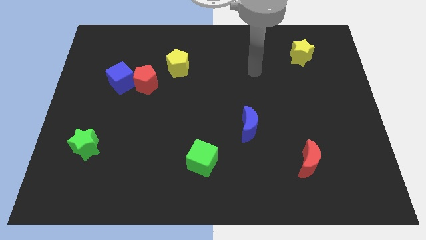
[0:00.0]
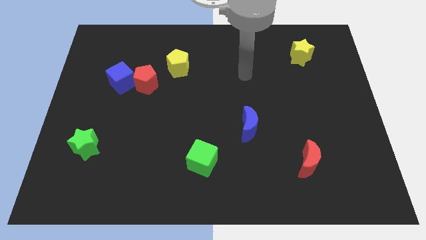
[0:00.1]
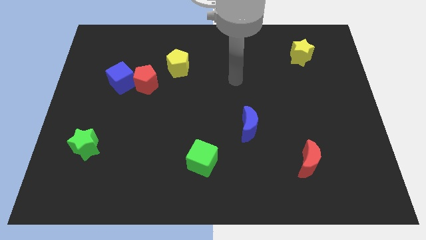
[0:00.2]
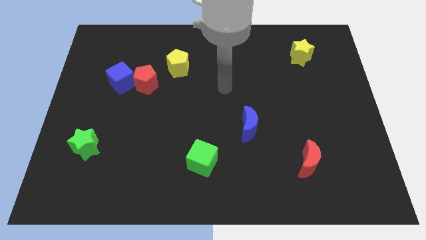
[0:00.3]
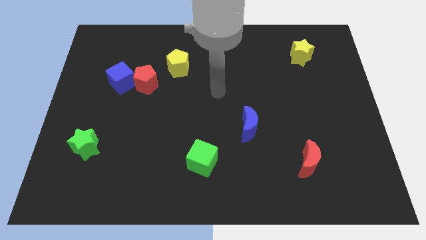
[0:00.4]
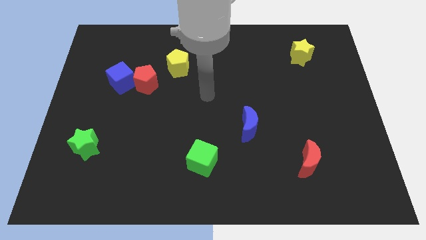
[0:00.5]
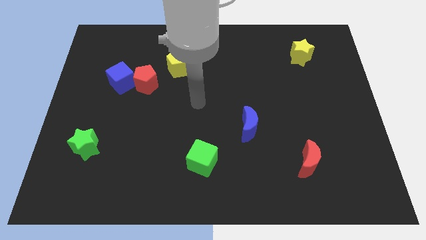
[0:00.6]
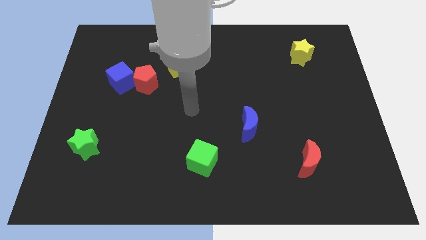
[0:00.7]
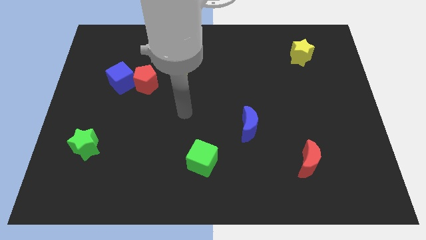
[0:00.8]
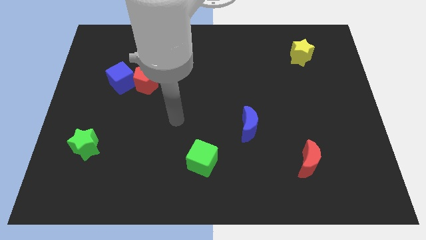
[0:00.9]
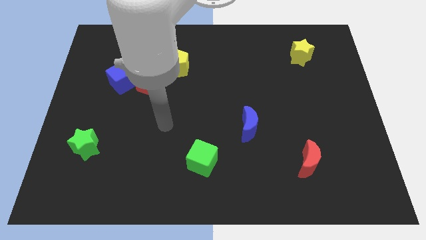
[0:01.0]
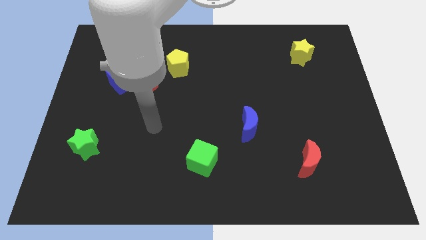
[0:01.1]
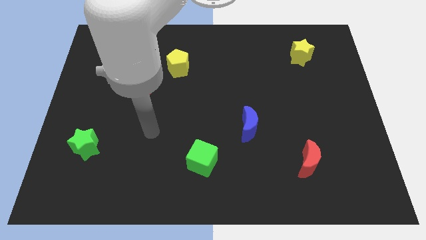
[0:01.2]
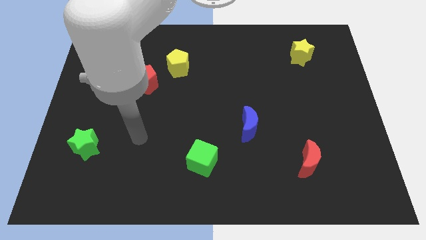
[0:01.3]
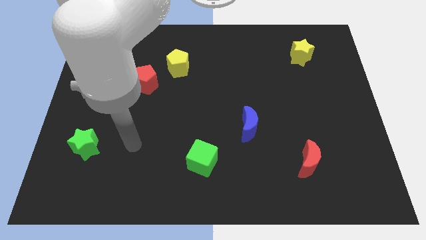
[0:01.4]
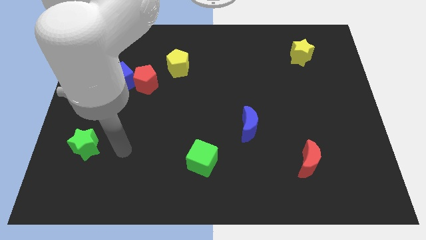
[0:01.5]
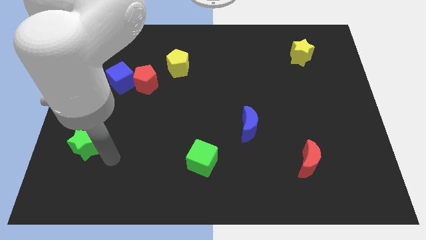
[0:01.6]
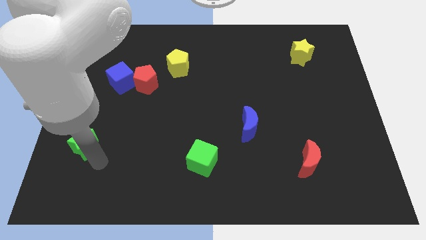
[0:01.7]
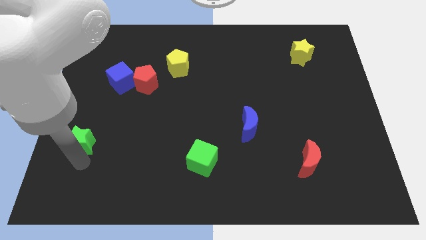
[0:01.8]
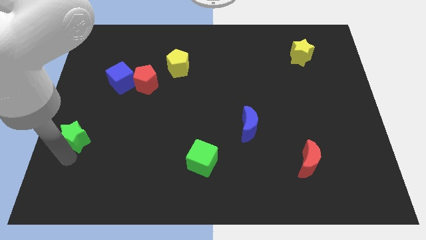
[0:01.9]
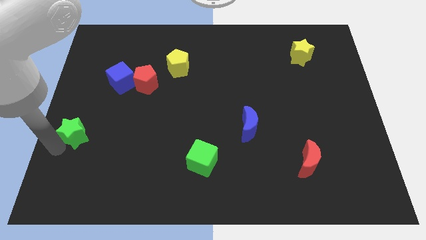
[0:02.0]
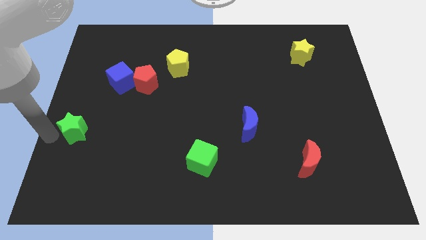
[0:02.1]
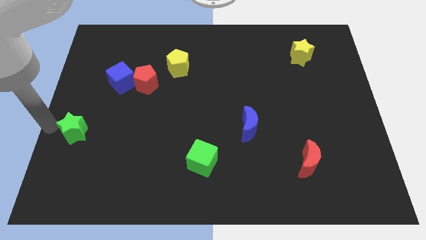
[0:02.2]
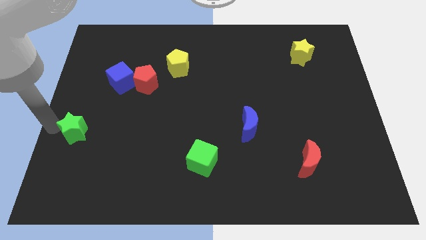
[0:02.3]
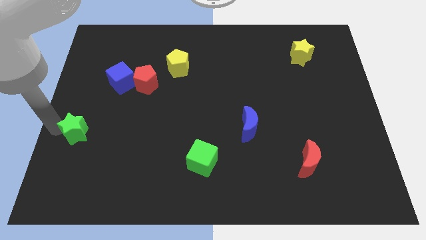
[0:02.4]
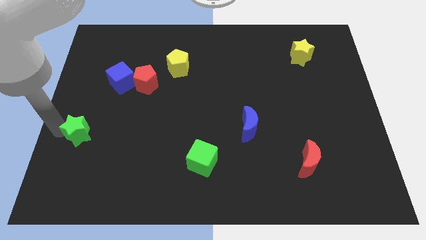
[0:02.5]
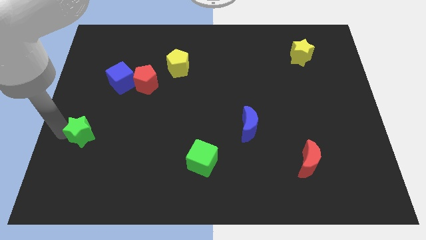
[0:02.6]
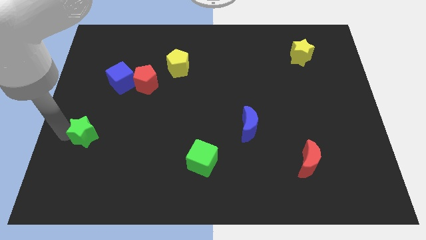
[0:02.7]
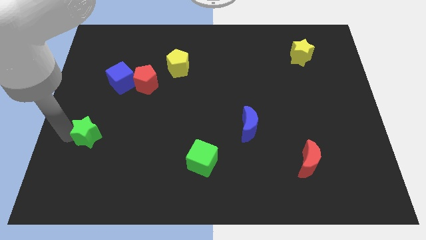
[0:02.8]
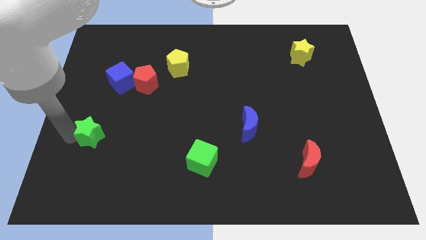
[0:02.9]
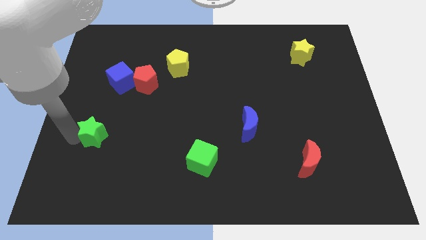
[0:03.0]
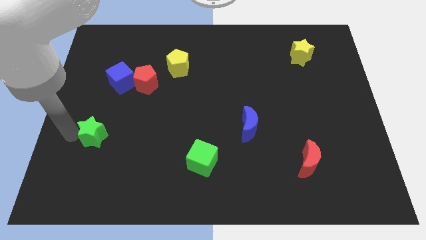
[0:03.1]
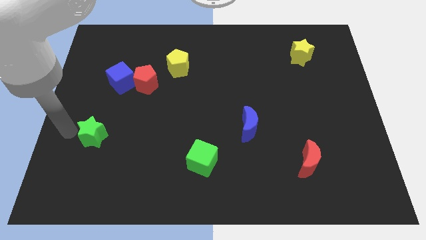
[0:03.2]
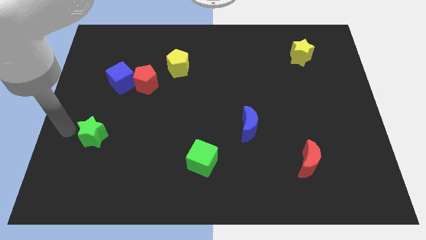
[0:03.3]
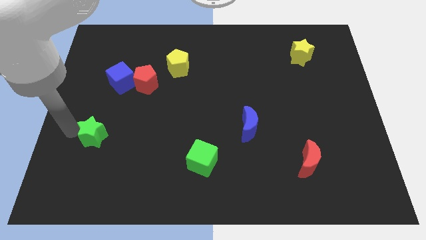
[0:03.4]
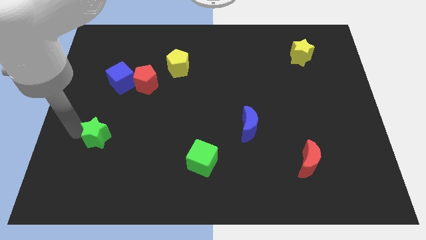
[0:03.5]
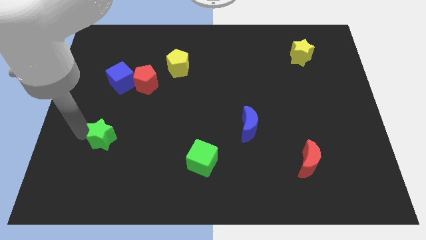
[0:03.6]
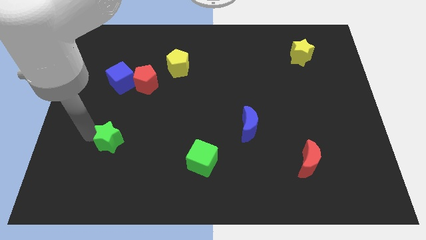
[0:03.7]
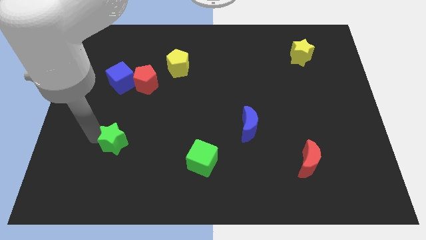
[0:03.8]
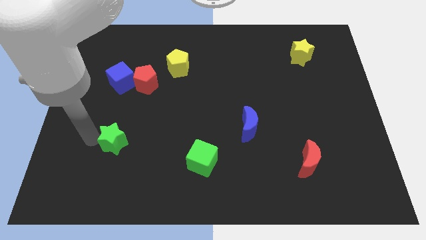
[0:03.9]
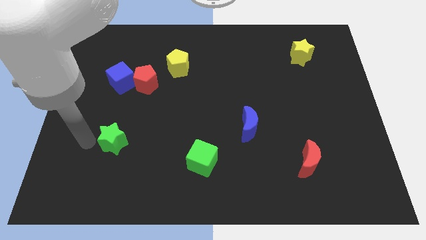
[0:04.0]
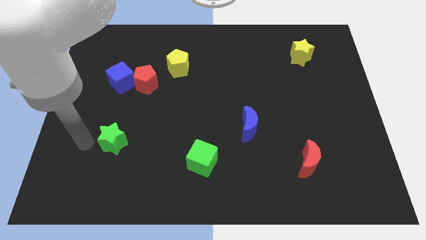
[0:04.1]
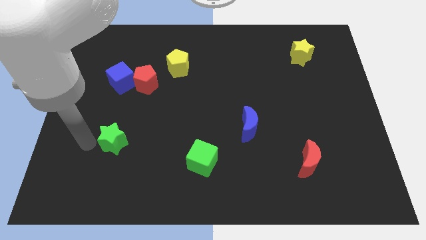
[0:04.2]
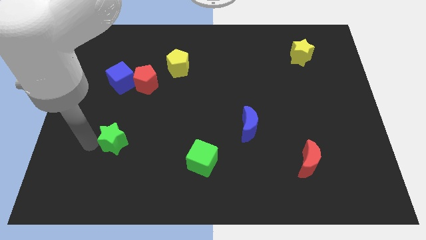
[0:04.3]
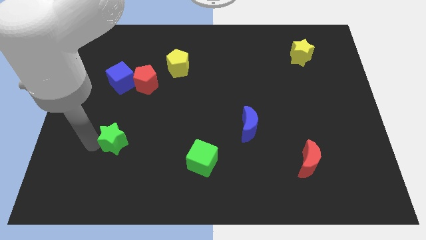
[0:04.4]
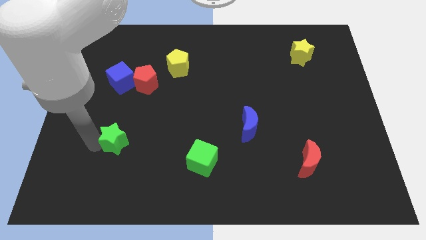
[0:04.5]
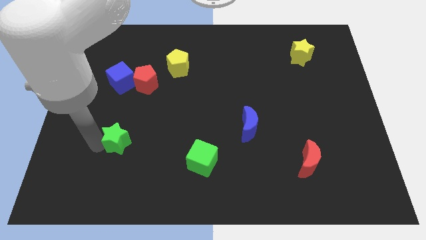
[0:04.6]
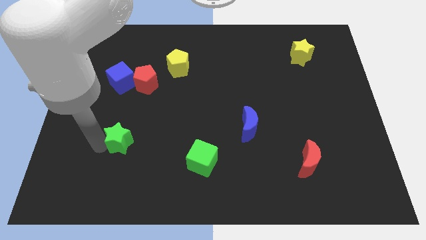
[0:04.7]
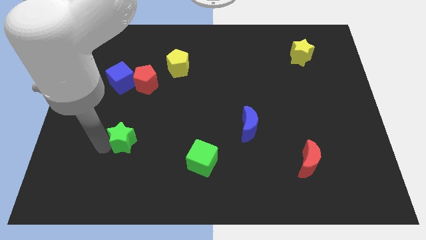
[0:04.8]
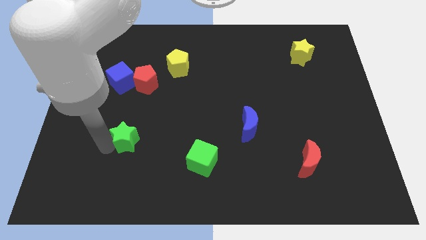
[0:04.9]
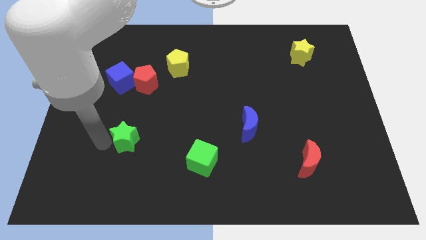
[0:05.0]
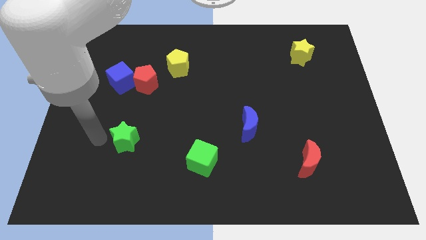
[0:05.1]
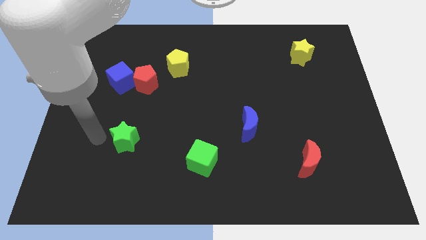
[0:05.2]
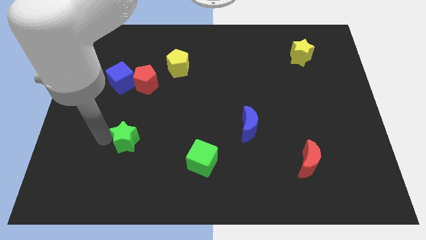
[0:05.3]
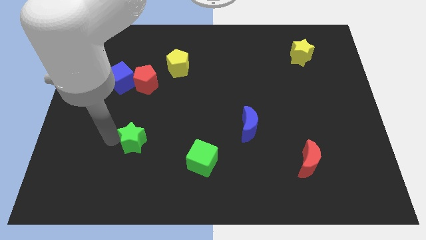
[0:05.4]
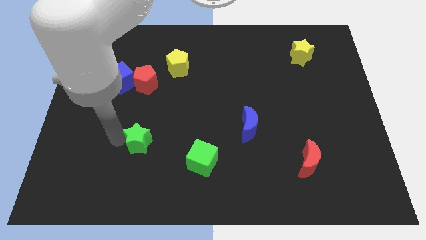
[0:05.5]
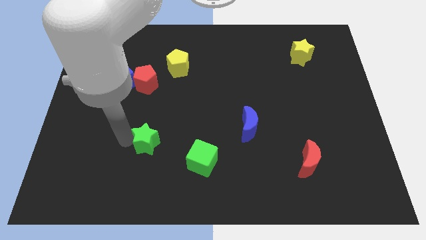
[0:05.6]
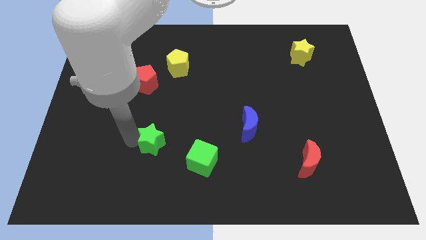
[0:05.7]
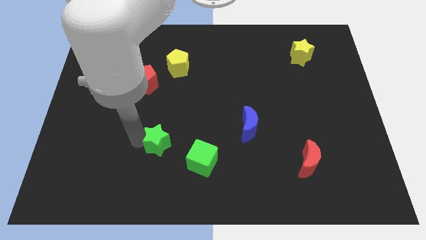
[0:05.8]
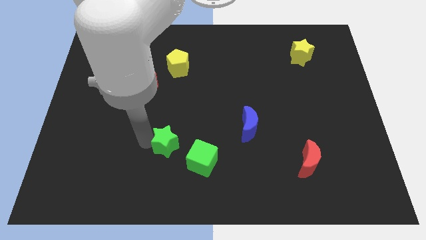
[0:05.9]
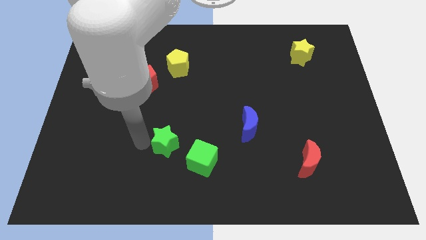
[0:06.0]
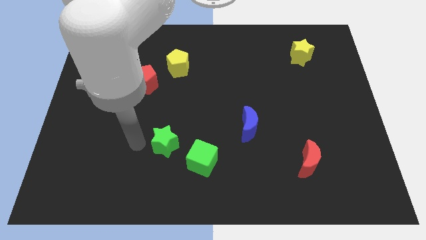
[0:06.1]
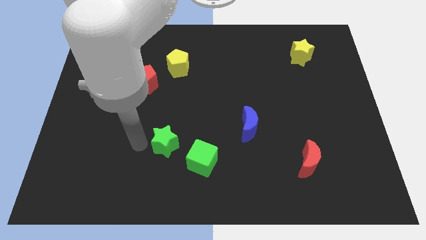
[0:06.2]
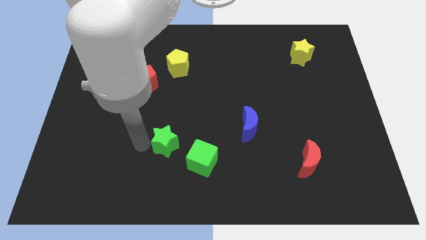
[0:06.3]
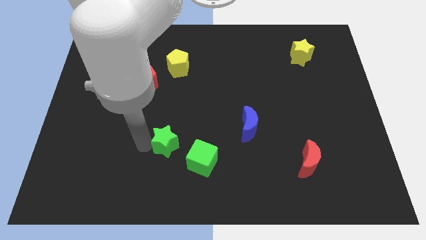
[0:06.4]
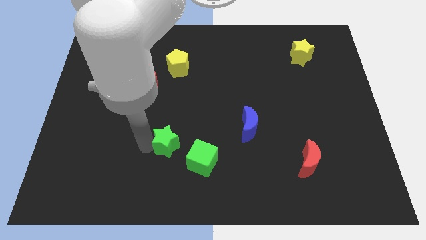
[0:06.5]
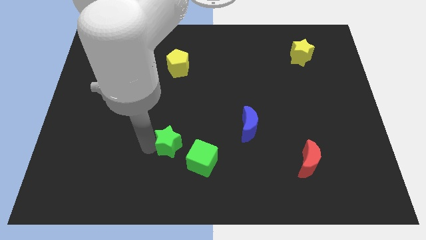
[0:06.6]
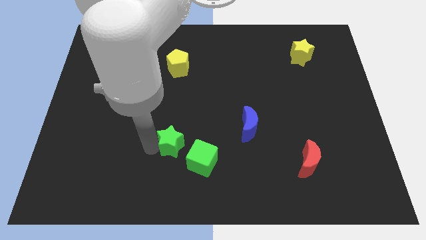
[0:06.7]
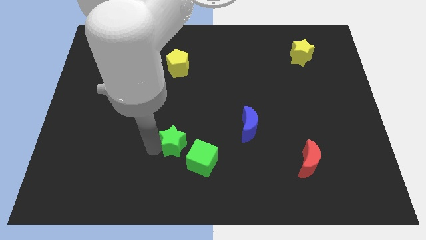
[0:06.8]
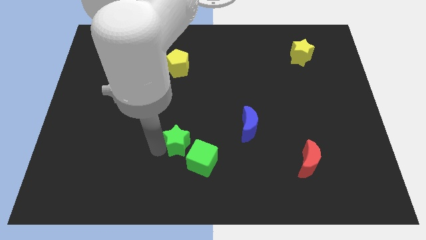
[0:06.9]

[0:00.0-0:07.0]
push the green star right

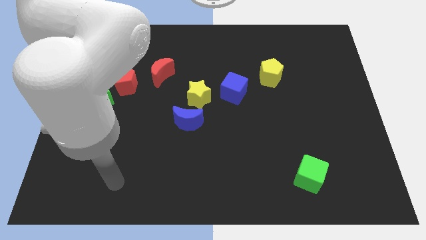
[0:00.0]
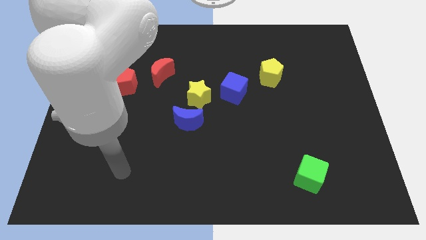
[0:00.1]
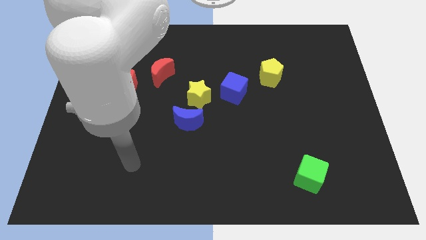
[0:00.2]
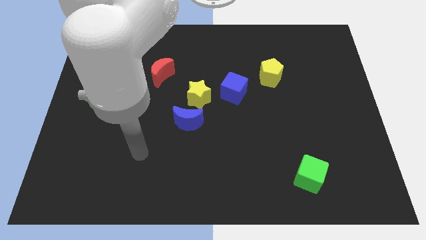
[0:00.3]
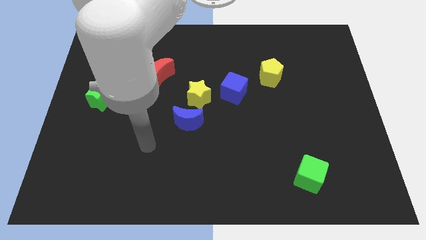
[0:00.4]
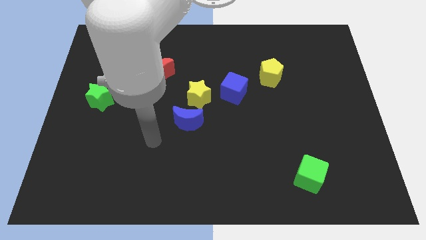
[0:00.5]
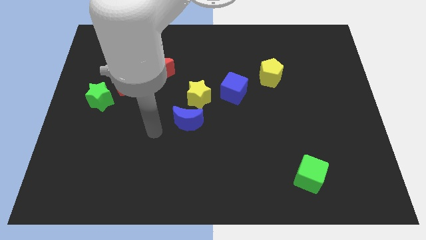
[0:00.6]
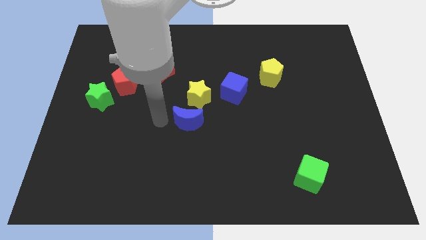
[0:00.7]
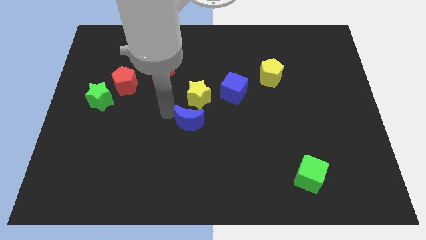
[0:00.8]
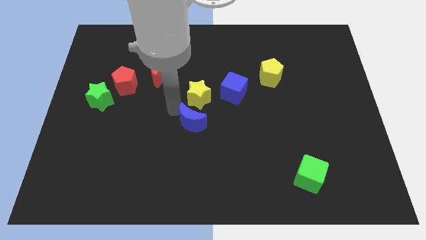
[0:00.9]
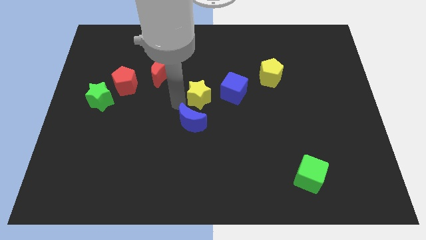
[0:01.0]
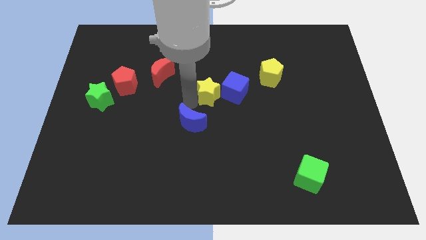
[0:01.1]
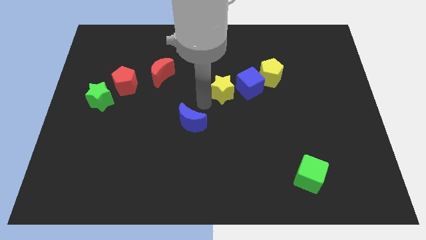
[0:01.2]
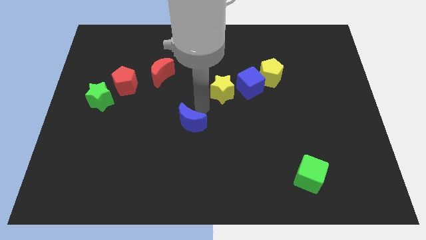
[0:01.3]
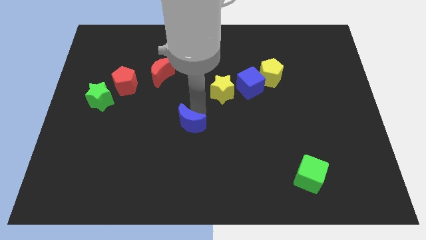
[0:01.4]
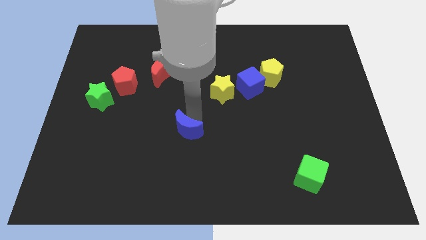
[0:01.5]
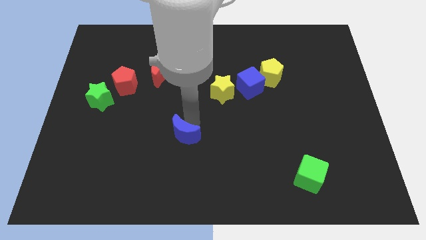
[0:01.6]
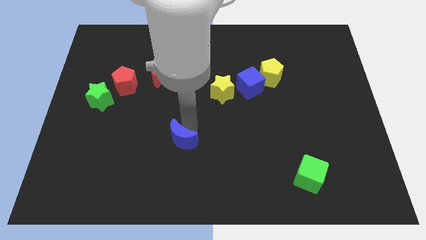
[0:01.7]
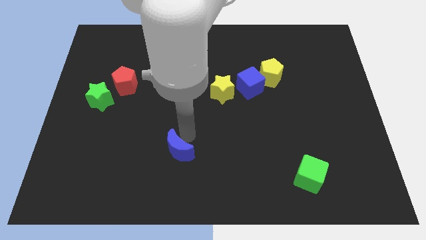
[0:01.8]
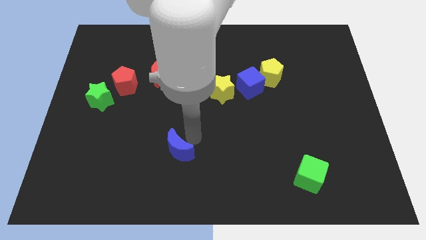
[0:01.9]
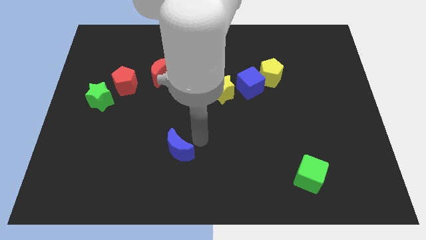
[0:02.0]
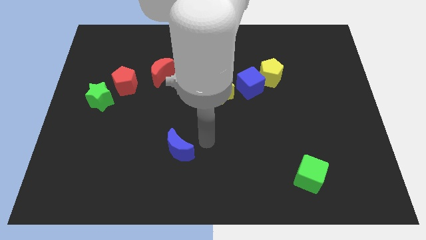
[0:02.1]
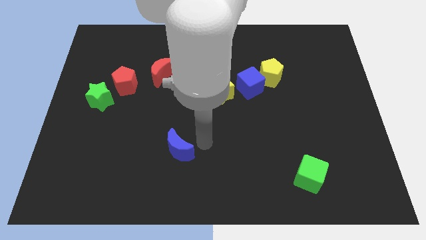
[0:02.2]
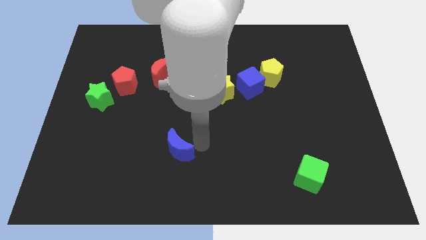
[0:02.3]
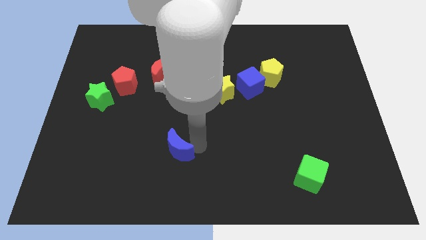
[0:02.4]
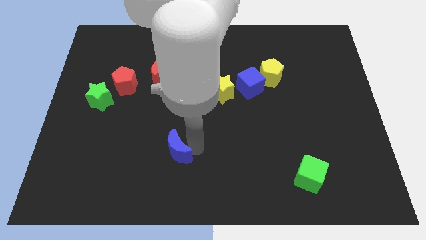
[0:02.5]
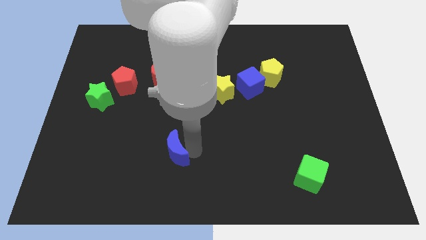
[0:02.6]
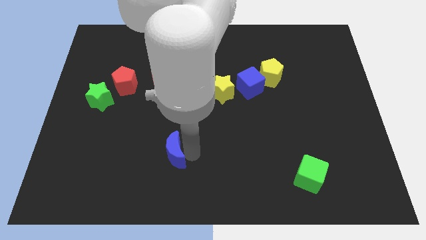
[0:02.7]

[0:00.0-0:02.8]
slightly move the blue moon downwards and then left
